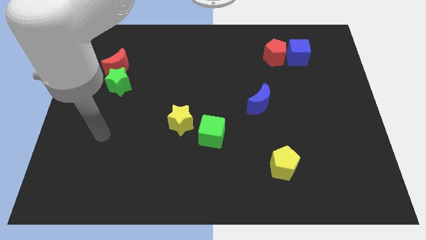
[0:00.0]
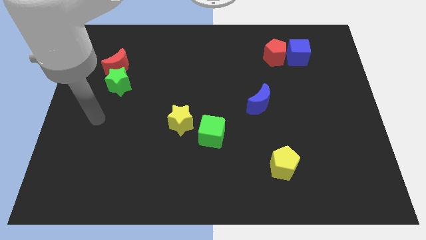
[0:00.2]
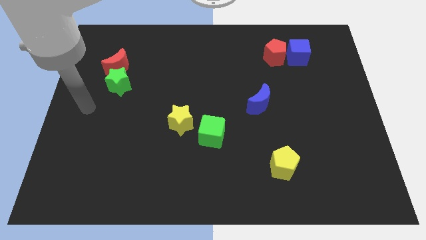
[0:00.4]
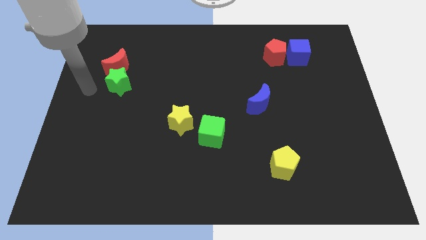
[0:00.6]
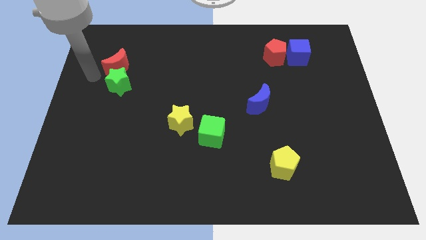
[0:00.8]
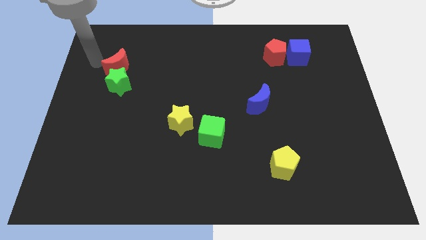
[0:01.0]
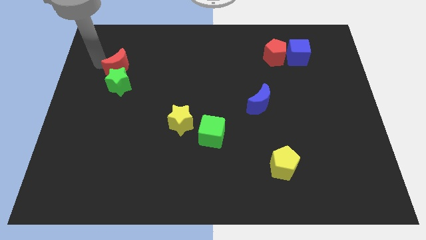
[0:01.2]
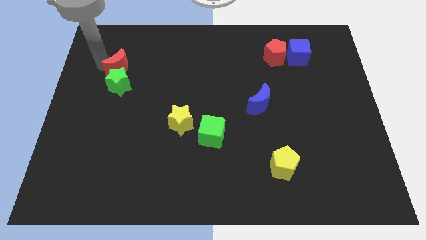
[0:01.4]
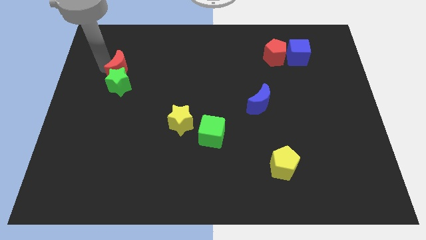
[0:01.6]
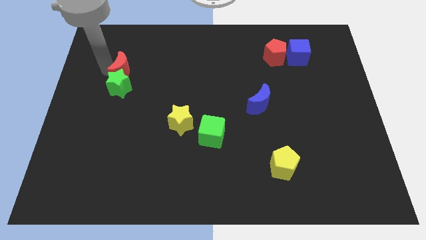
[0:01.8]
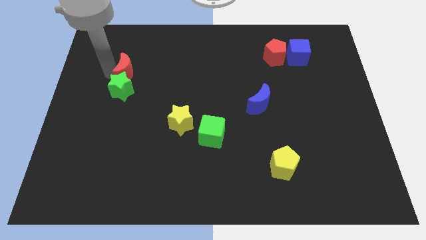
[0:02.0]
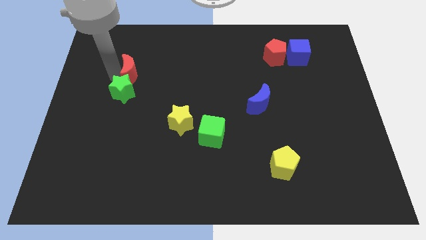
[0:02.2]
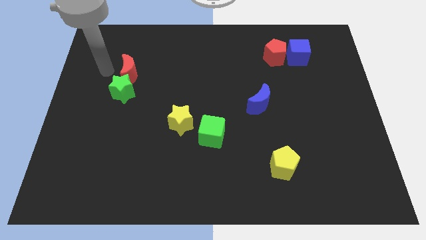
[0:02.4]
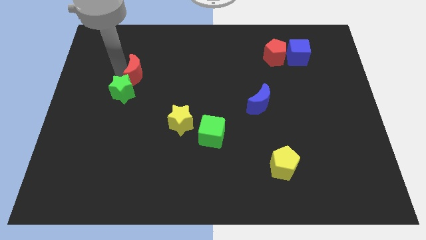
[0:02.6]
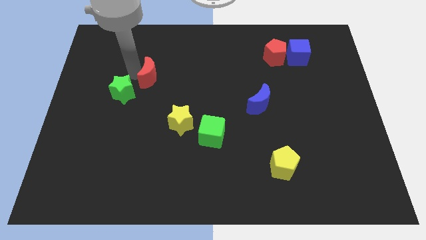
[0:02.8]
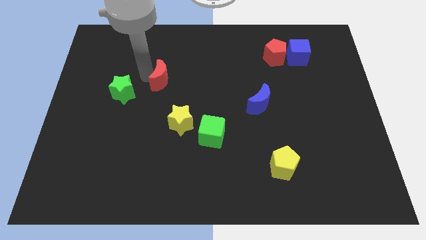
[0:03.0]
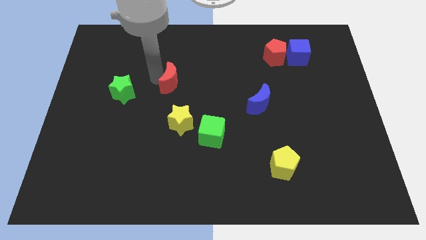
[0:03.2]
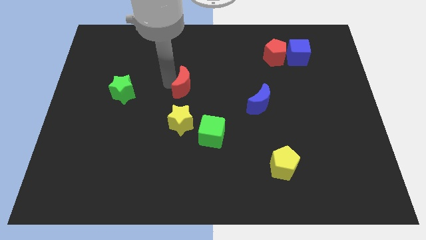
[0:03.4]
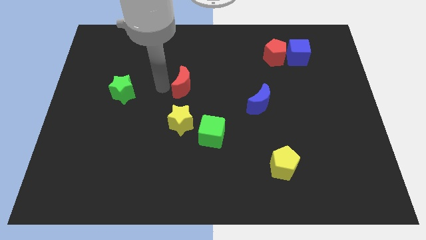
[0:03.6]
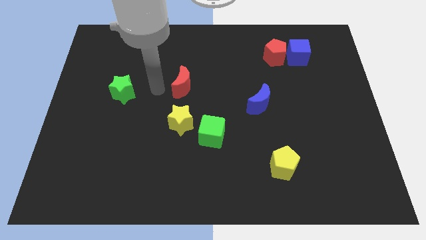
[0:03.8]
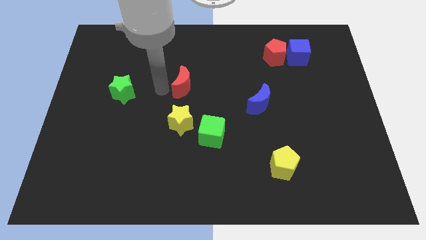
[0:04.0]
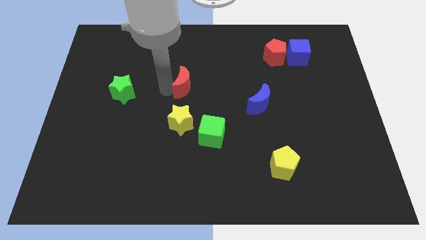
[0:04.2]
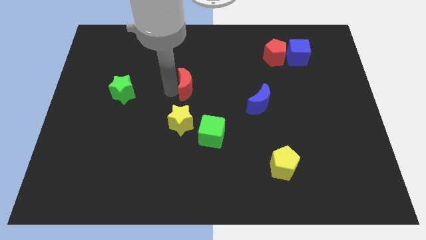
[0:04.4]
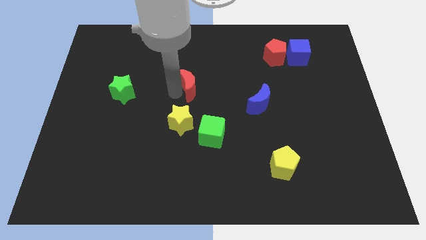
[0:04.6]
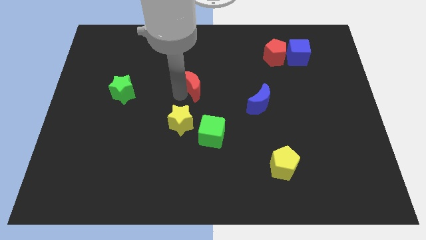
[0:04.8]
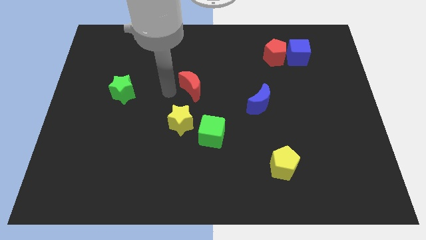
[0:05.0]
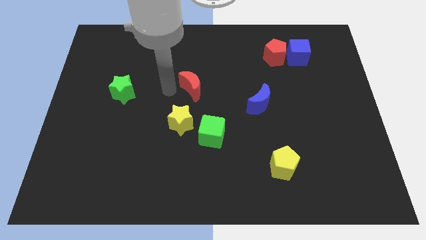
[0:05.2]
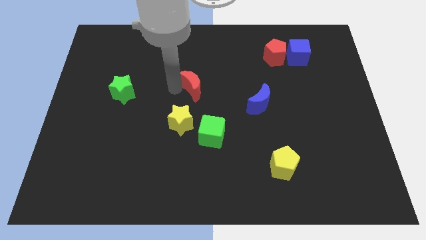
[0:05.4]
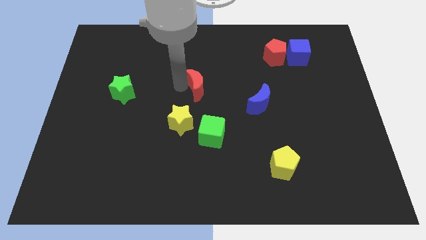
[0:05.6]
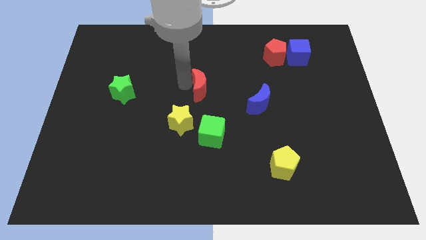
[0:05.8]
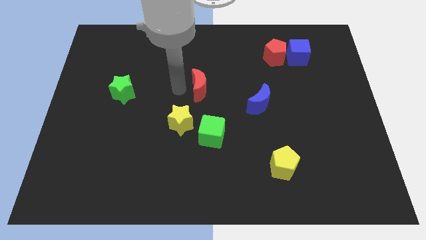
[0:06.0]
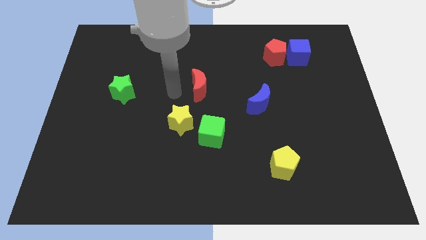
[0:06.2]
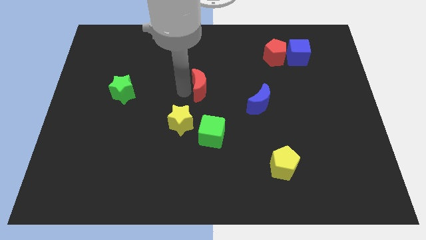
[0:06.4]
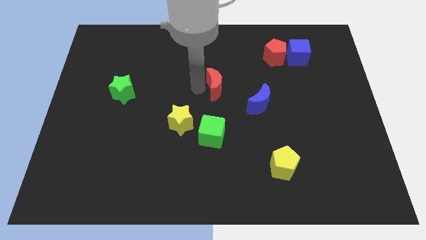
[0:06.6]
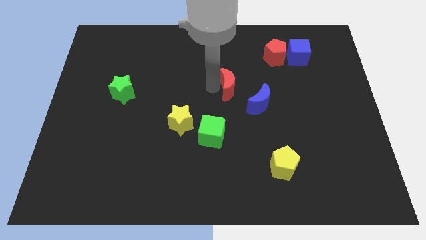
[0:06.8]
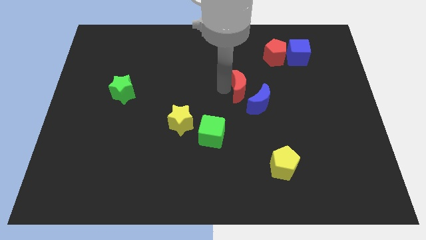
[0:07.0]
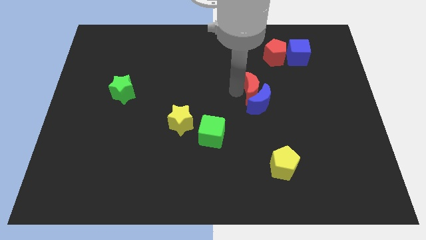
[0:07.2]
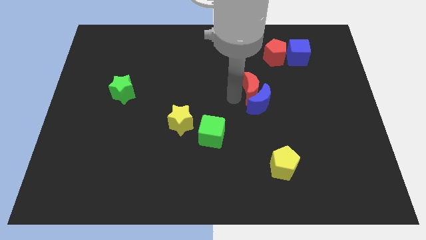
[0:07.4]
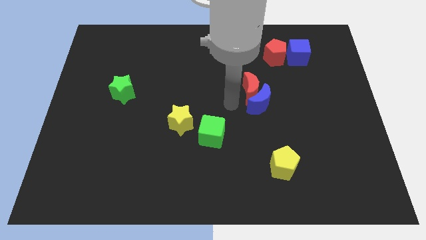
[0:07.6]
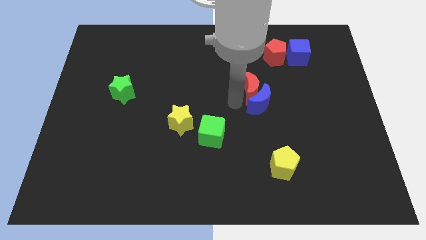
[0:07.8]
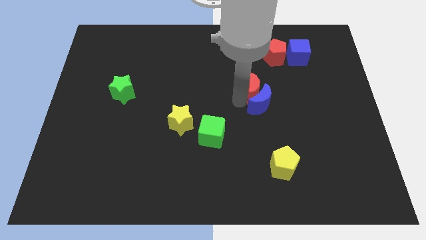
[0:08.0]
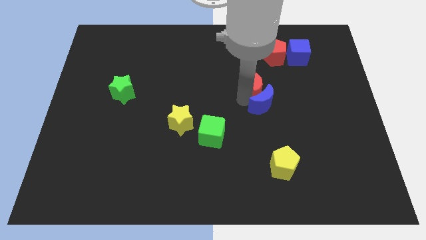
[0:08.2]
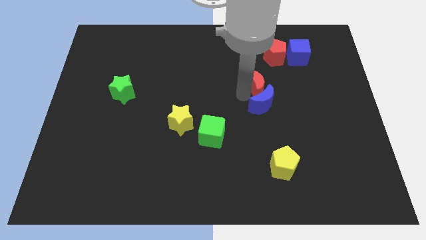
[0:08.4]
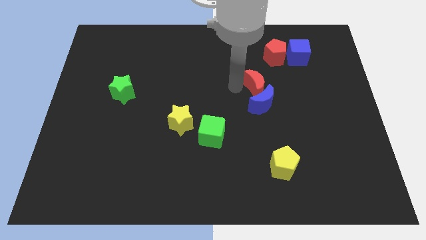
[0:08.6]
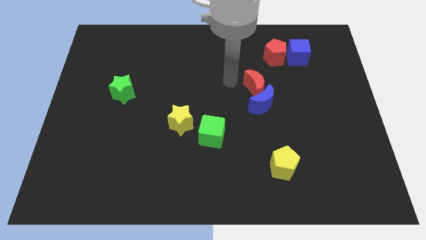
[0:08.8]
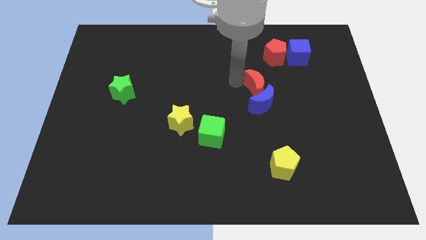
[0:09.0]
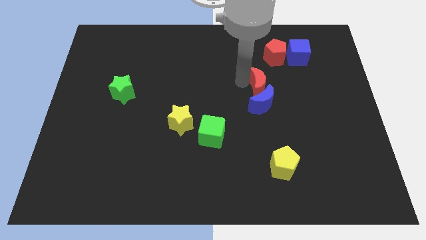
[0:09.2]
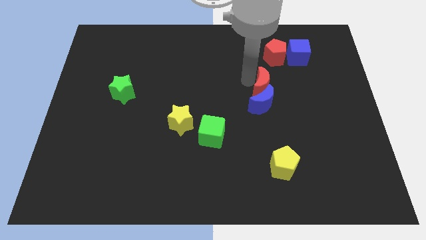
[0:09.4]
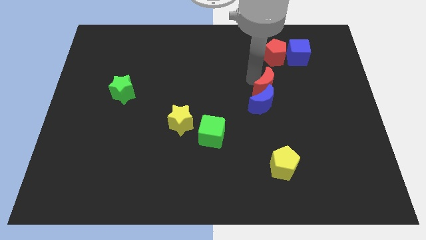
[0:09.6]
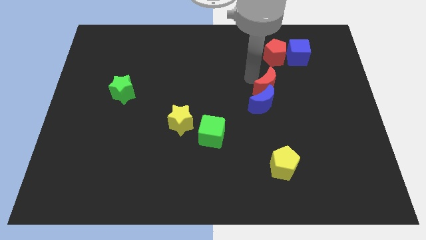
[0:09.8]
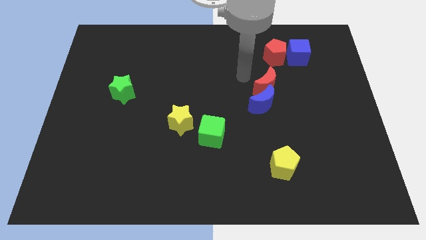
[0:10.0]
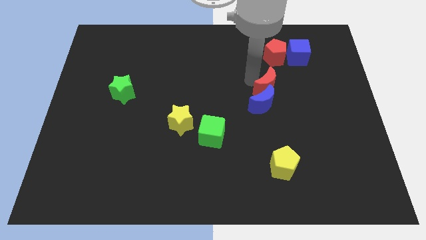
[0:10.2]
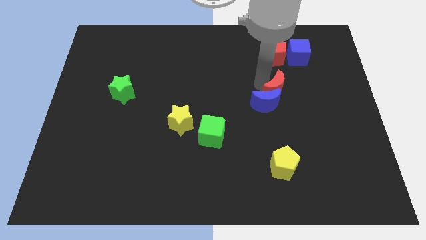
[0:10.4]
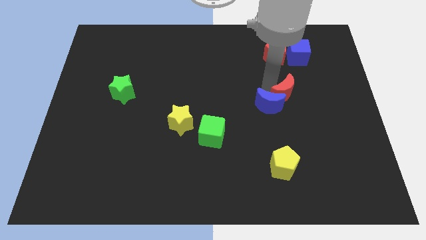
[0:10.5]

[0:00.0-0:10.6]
push the red moon to the right of the blue moon

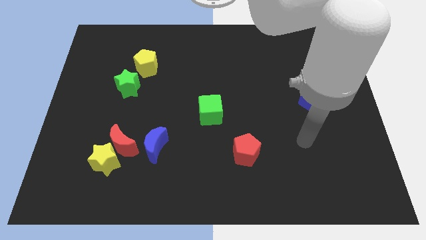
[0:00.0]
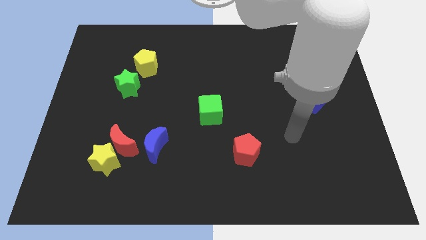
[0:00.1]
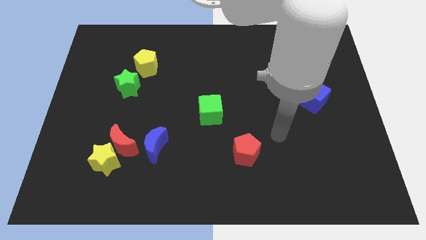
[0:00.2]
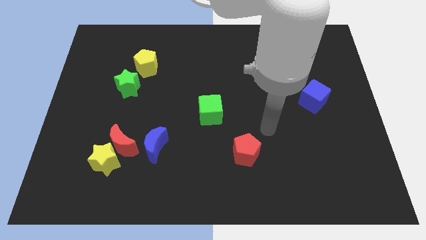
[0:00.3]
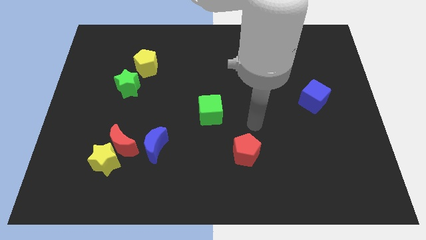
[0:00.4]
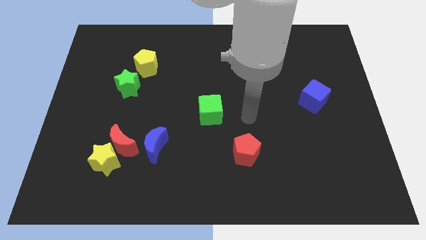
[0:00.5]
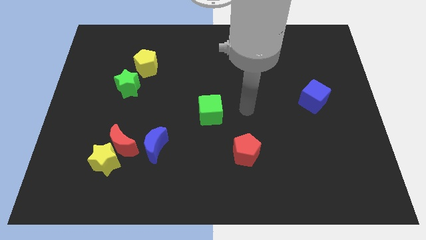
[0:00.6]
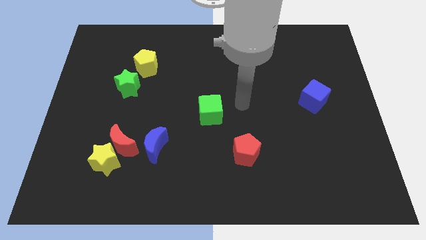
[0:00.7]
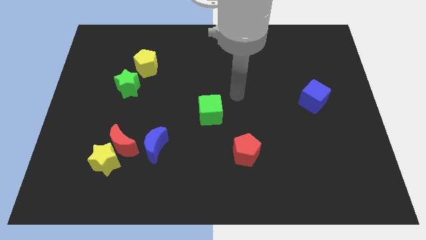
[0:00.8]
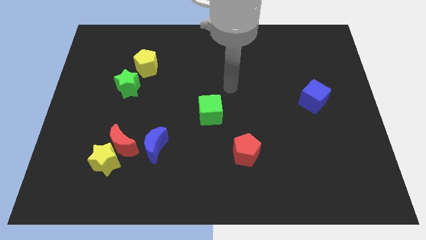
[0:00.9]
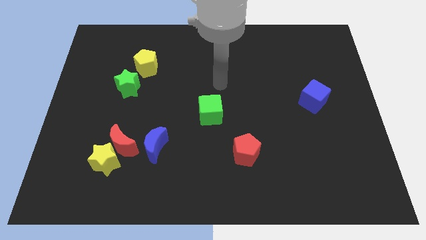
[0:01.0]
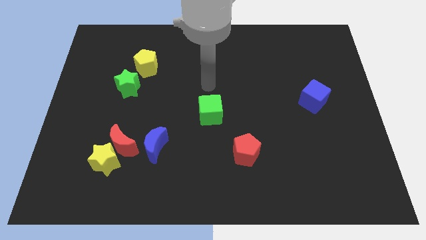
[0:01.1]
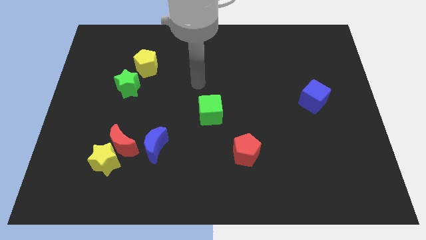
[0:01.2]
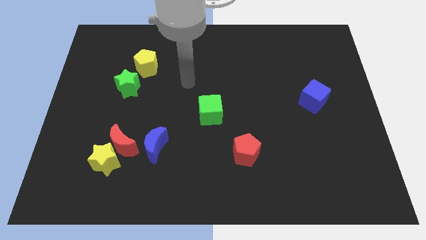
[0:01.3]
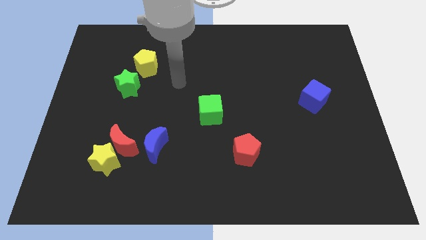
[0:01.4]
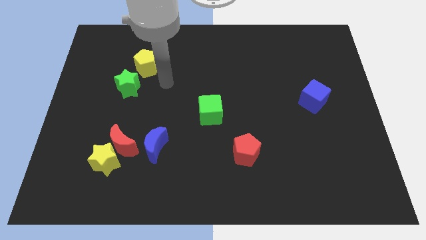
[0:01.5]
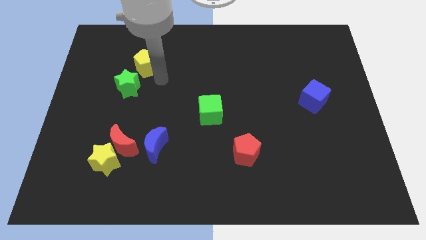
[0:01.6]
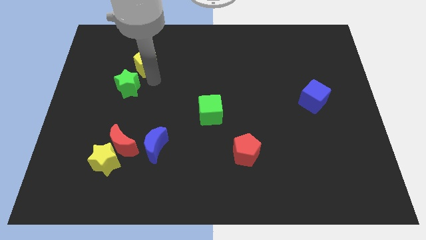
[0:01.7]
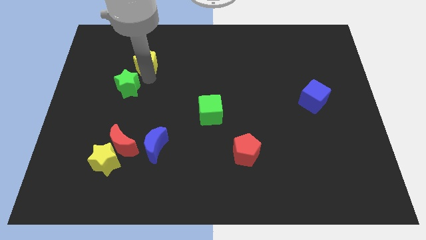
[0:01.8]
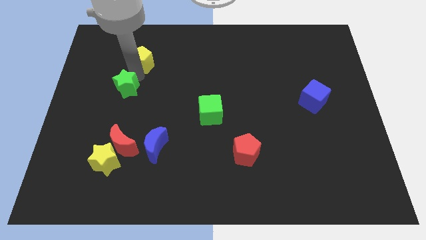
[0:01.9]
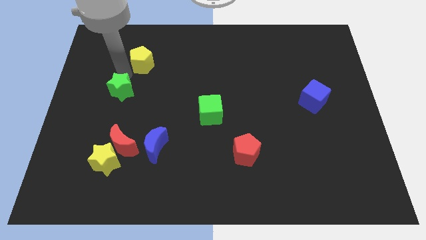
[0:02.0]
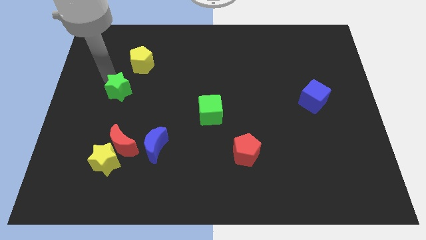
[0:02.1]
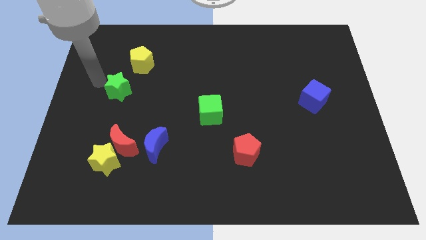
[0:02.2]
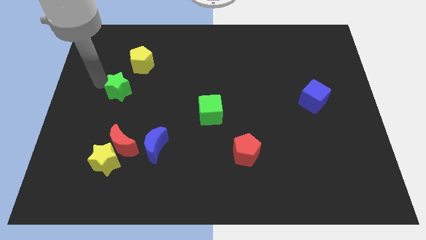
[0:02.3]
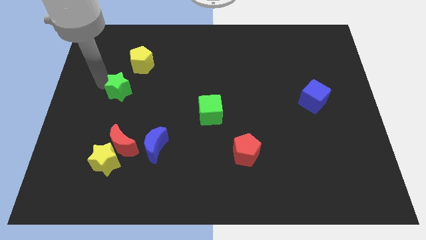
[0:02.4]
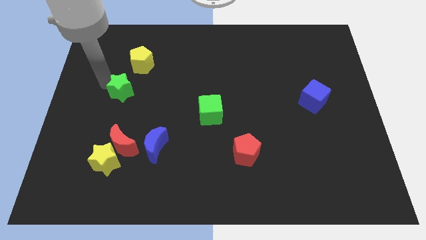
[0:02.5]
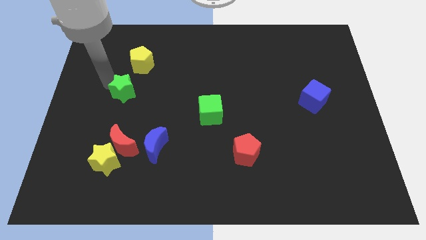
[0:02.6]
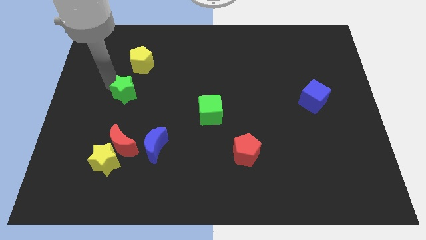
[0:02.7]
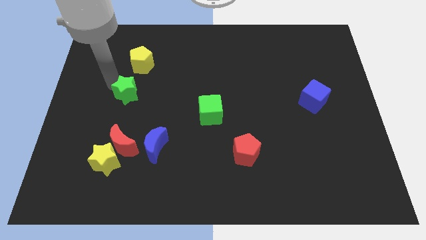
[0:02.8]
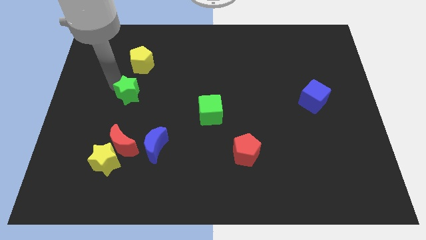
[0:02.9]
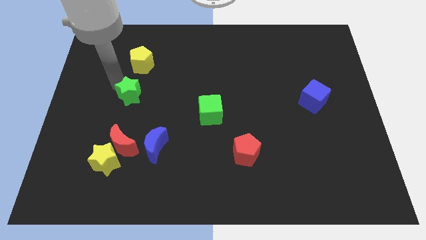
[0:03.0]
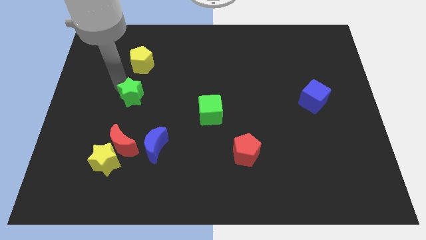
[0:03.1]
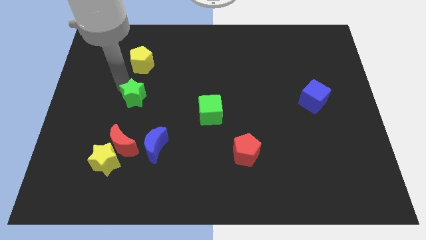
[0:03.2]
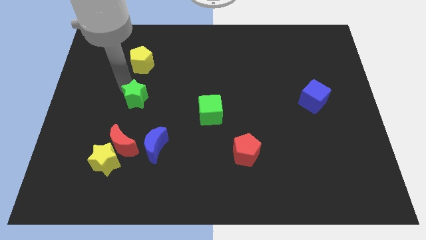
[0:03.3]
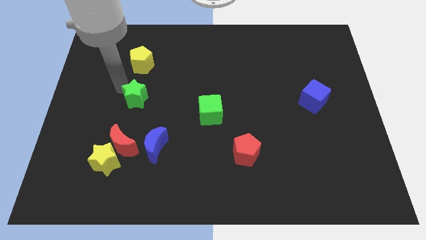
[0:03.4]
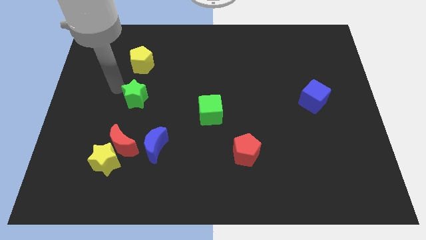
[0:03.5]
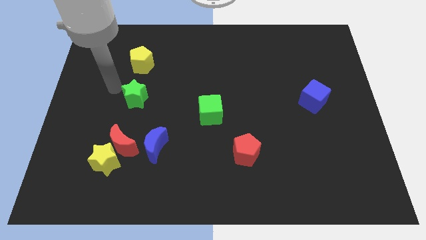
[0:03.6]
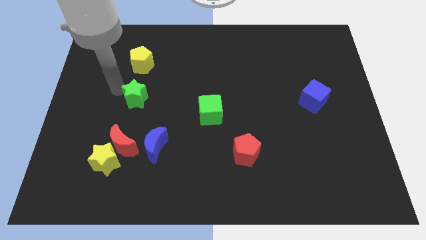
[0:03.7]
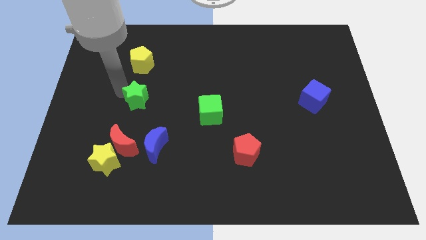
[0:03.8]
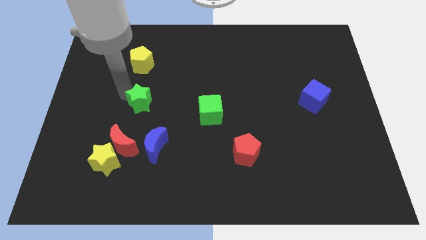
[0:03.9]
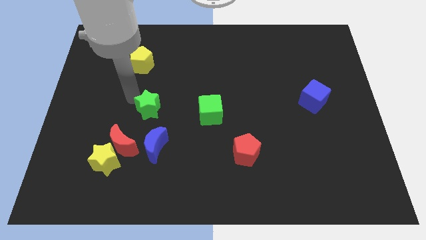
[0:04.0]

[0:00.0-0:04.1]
move the green star to the top right of the red moon
